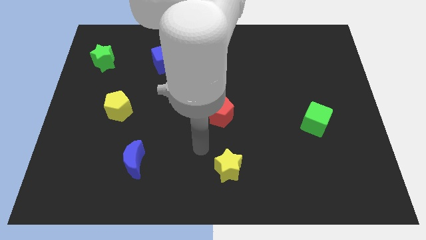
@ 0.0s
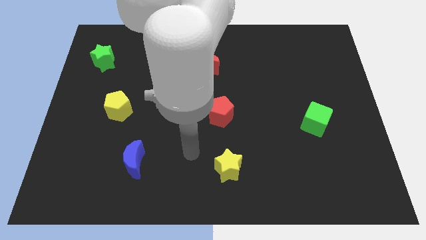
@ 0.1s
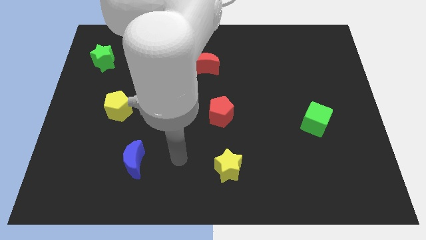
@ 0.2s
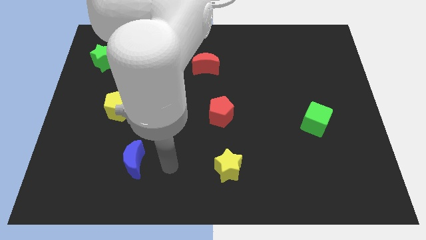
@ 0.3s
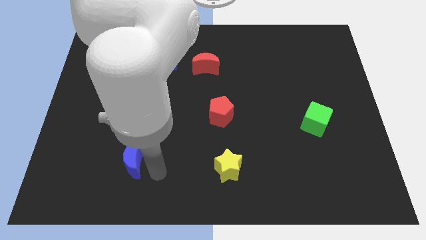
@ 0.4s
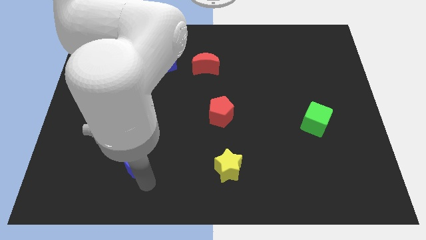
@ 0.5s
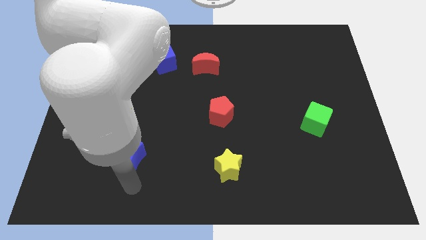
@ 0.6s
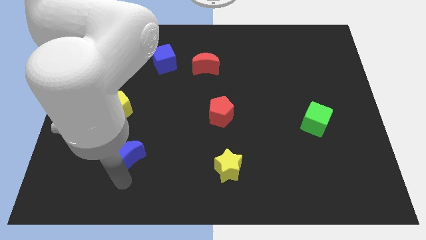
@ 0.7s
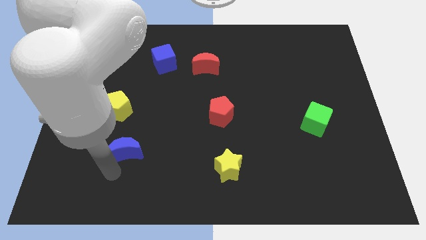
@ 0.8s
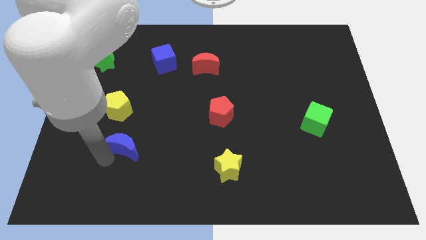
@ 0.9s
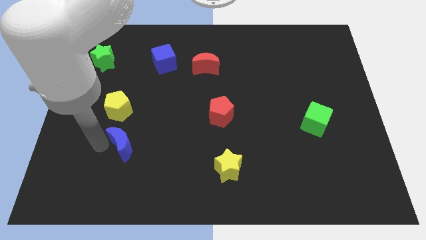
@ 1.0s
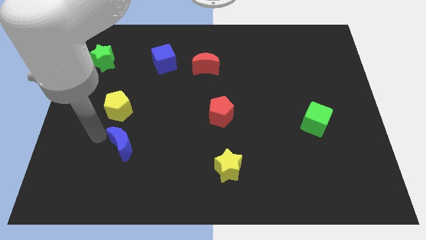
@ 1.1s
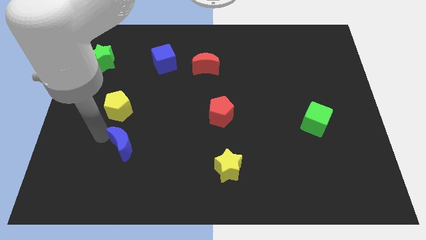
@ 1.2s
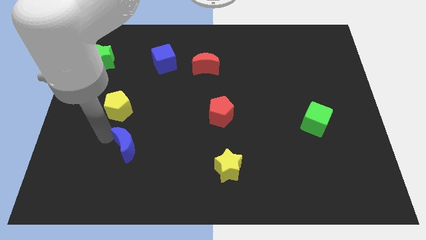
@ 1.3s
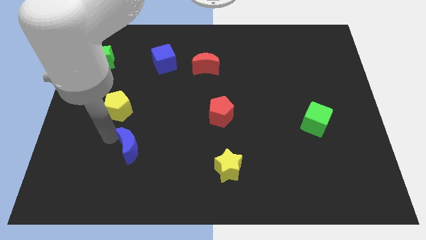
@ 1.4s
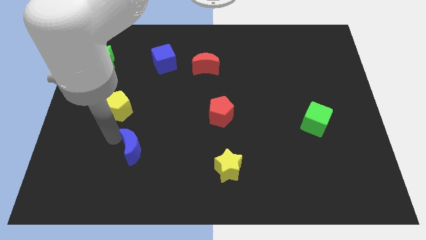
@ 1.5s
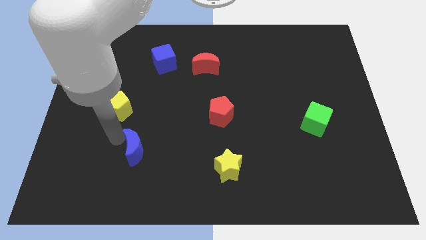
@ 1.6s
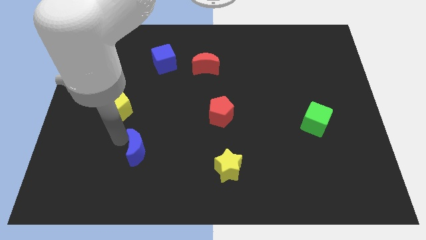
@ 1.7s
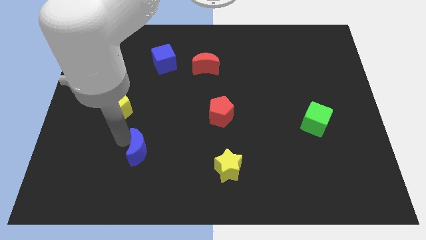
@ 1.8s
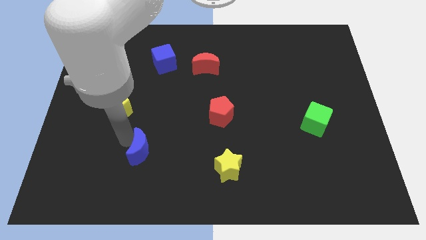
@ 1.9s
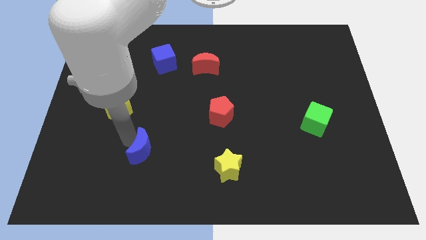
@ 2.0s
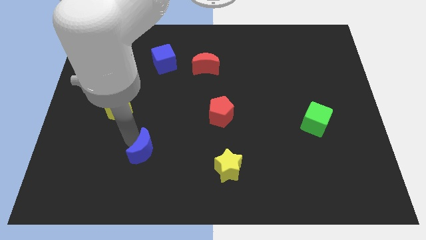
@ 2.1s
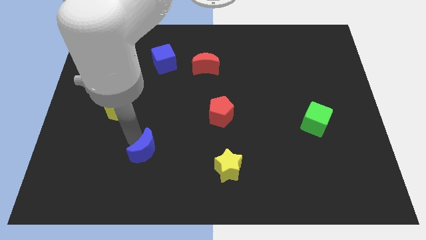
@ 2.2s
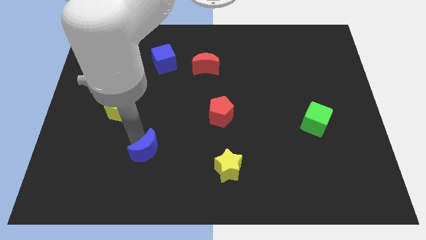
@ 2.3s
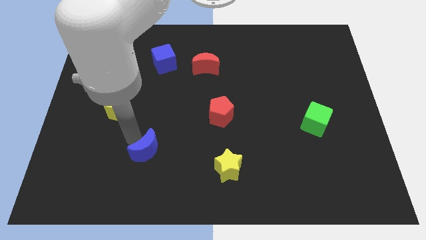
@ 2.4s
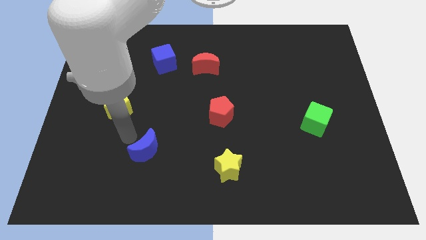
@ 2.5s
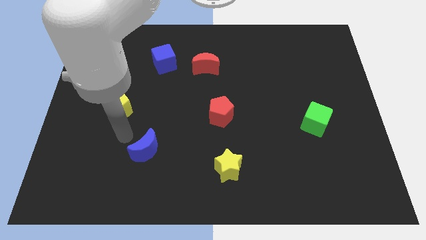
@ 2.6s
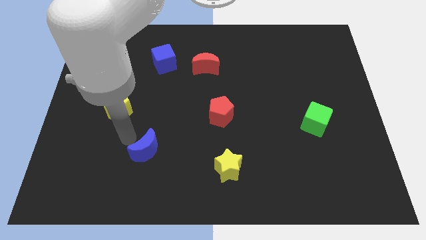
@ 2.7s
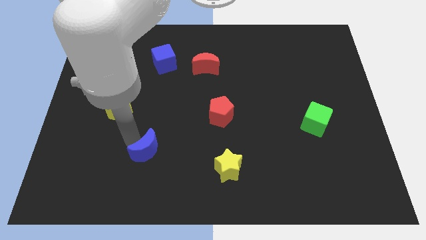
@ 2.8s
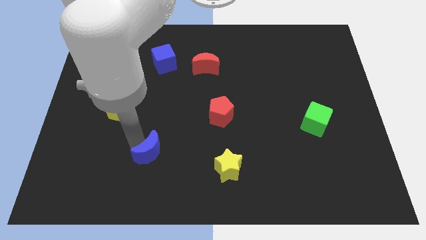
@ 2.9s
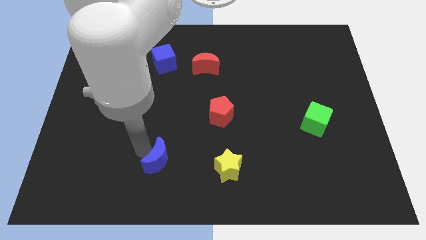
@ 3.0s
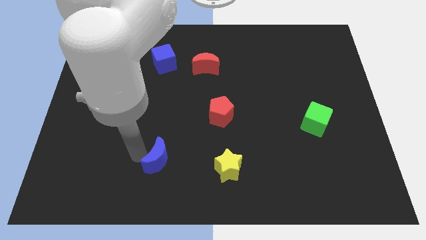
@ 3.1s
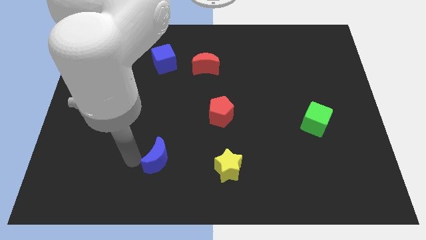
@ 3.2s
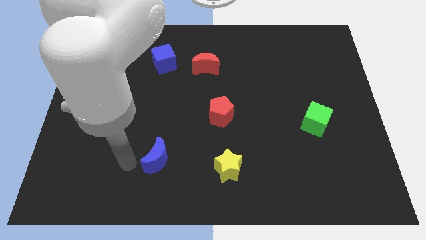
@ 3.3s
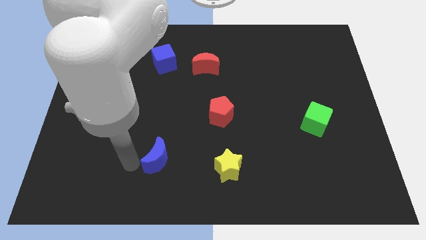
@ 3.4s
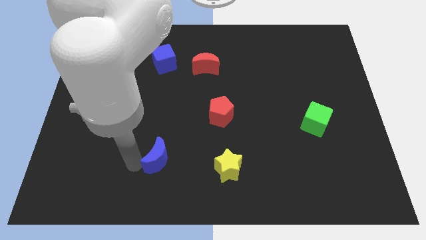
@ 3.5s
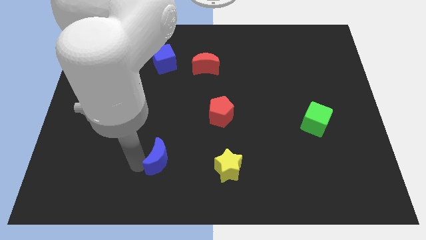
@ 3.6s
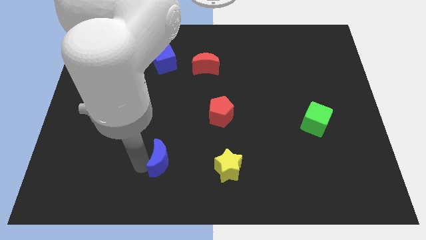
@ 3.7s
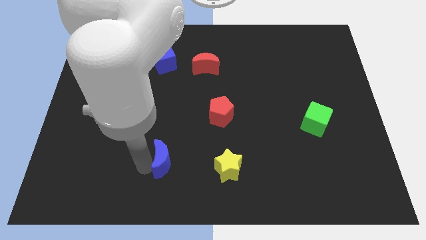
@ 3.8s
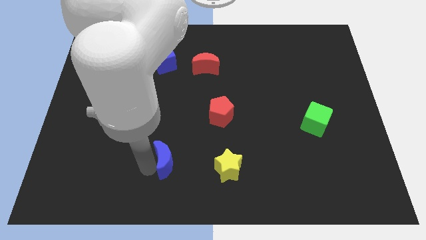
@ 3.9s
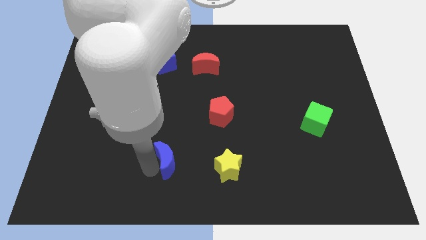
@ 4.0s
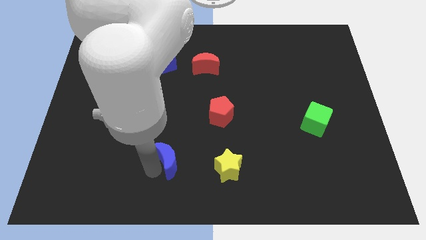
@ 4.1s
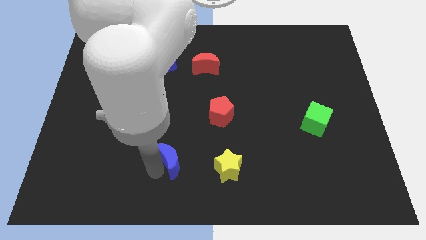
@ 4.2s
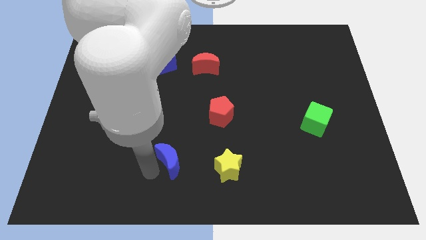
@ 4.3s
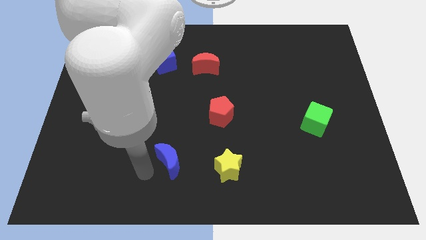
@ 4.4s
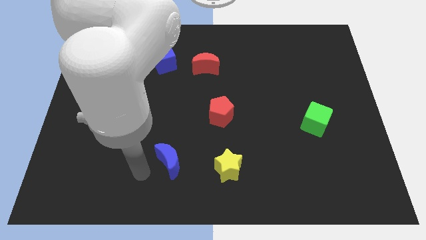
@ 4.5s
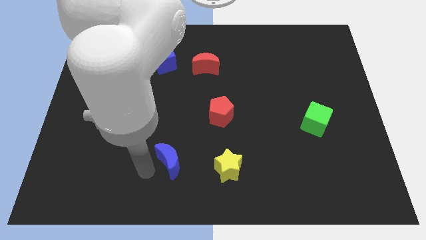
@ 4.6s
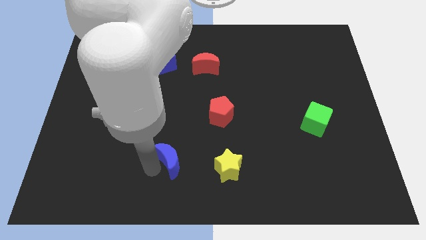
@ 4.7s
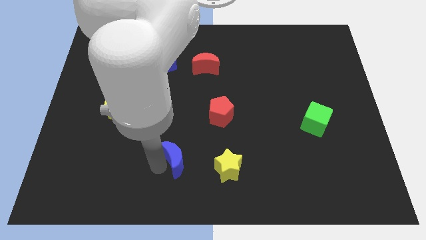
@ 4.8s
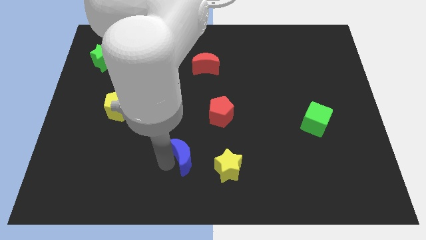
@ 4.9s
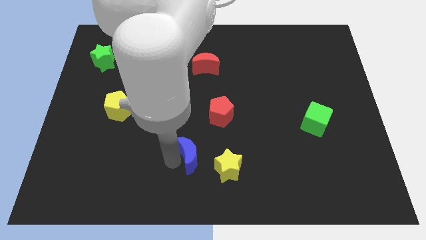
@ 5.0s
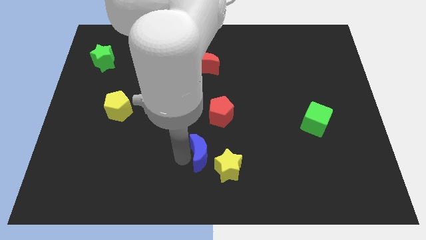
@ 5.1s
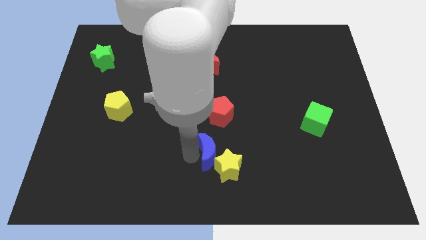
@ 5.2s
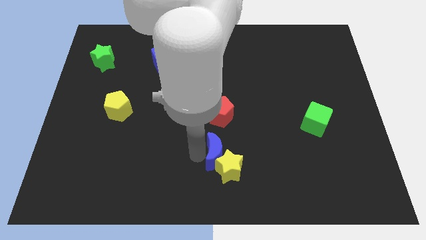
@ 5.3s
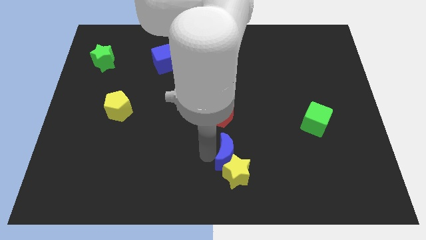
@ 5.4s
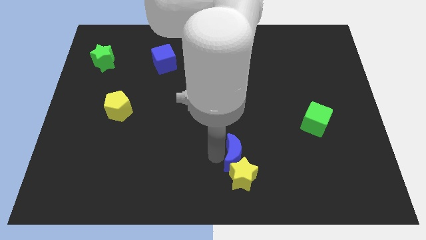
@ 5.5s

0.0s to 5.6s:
slide the blue moon to the right

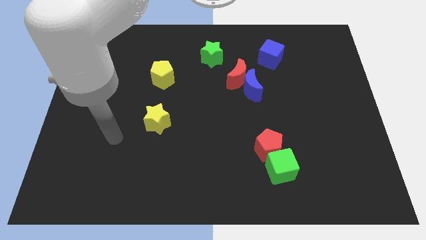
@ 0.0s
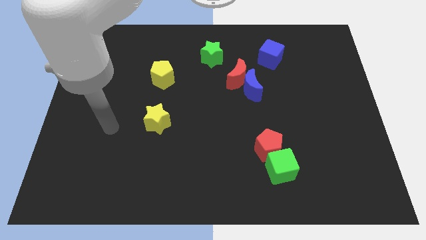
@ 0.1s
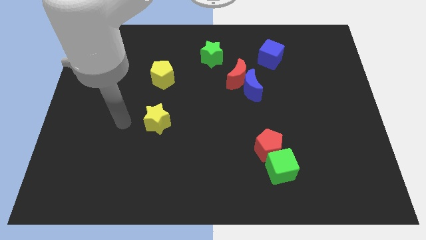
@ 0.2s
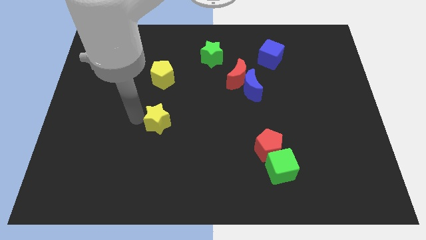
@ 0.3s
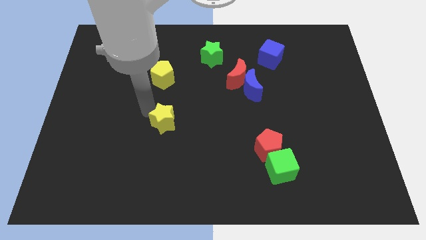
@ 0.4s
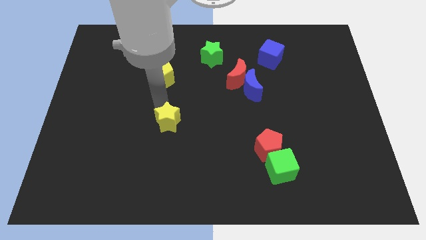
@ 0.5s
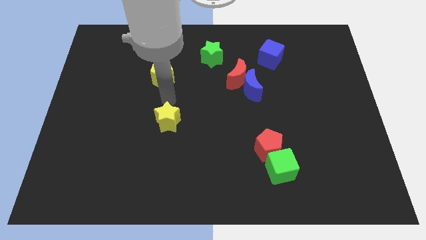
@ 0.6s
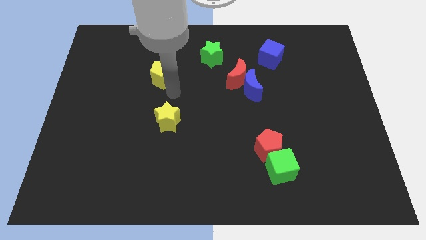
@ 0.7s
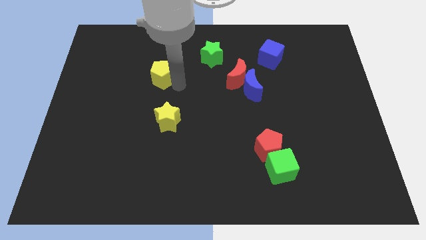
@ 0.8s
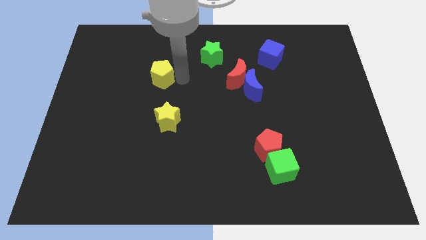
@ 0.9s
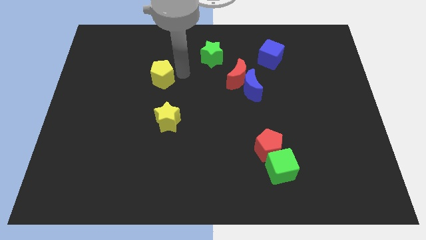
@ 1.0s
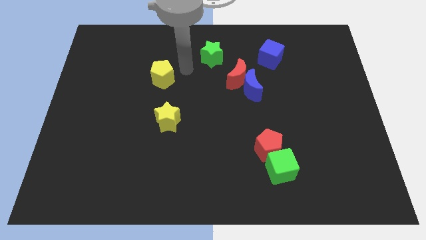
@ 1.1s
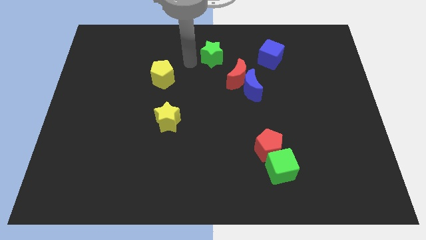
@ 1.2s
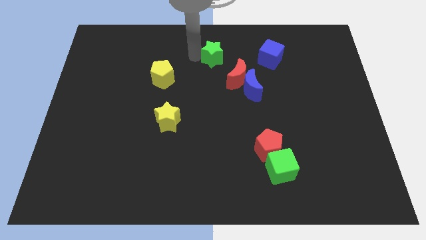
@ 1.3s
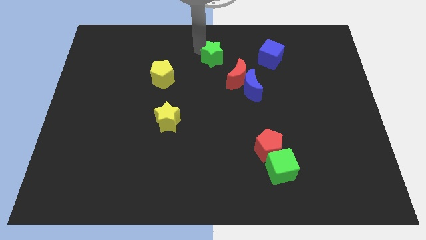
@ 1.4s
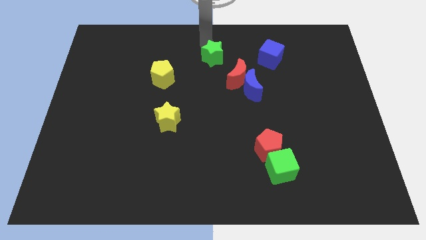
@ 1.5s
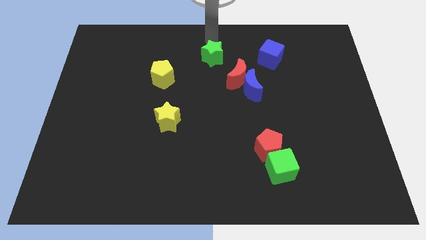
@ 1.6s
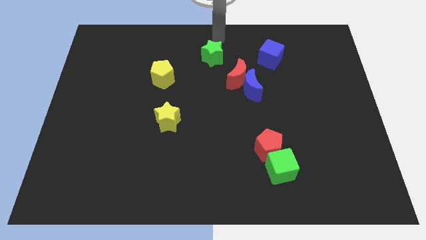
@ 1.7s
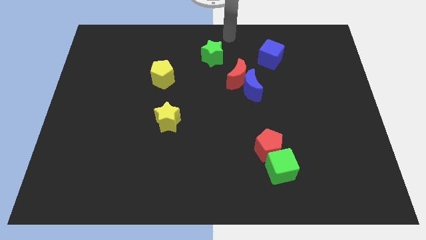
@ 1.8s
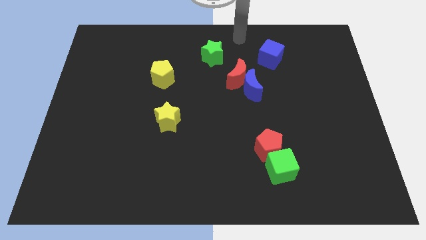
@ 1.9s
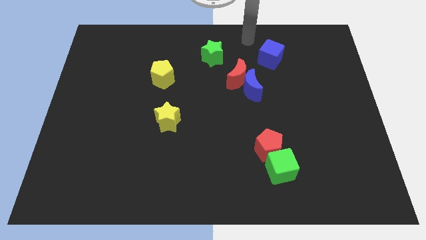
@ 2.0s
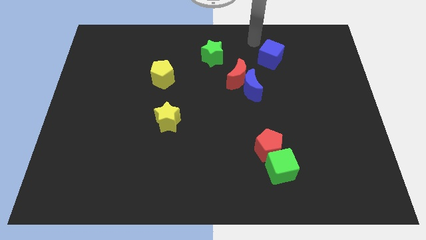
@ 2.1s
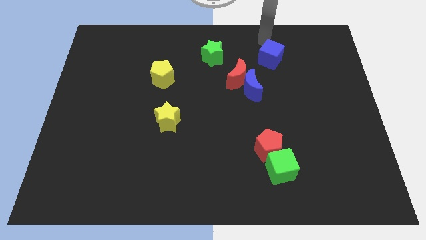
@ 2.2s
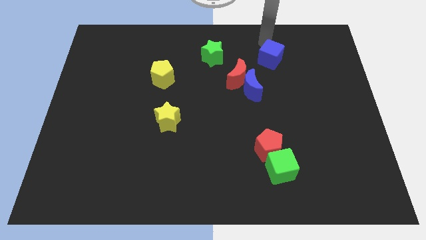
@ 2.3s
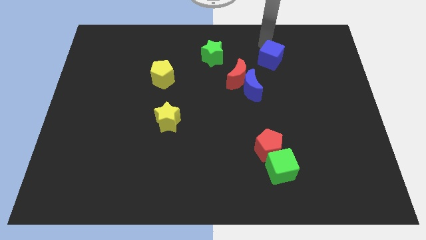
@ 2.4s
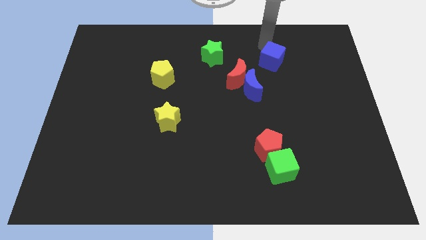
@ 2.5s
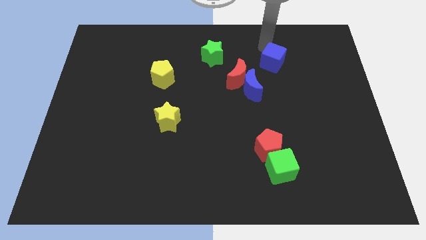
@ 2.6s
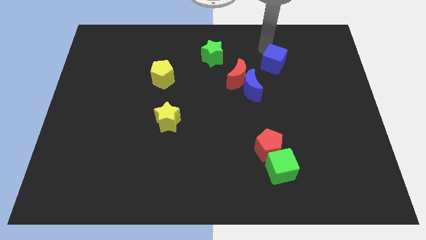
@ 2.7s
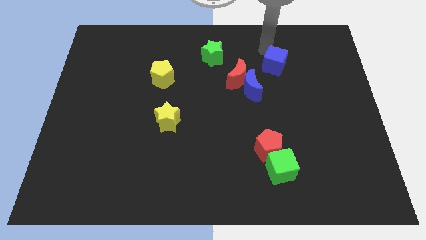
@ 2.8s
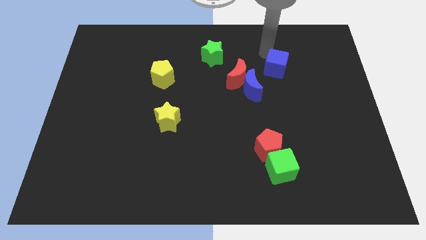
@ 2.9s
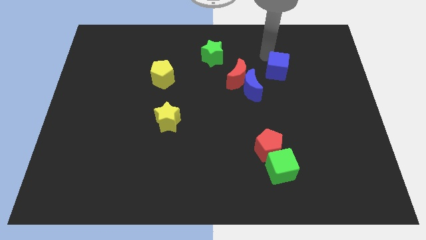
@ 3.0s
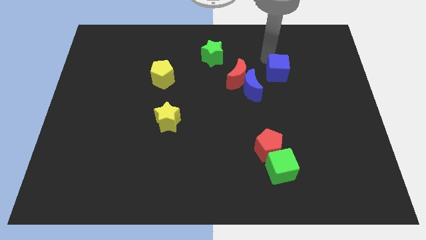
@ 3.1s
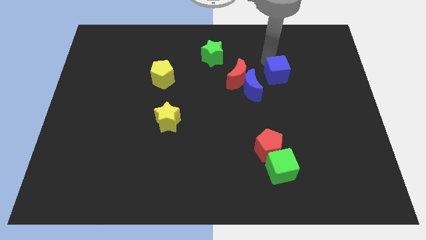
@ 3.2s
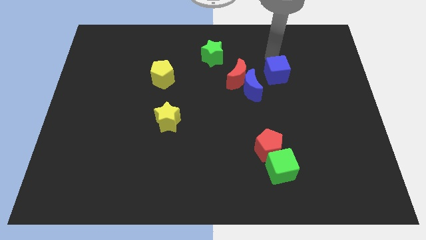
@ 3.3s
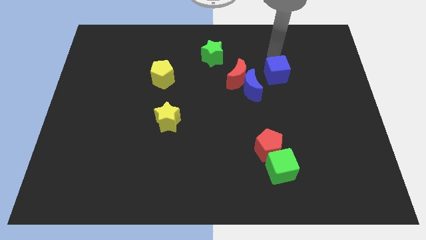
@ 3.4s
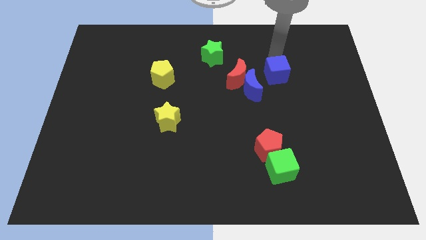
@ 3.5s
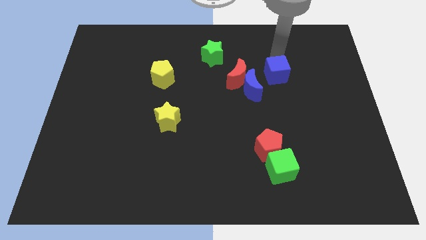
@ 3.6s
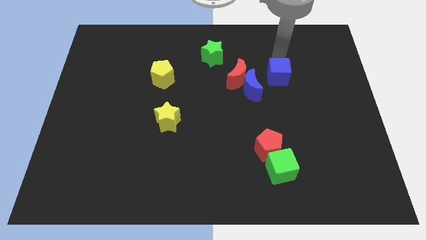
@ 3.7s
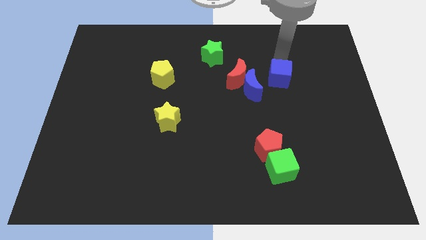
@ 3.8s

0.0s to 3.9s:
move the blue cube somewhat downwards
